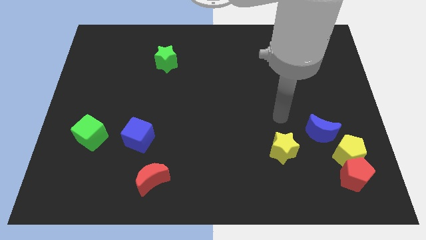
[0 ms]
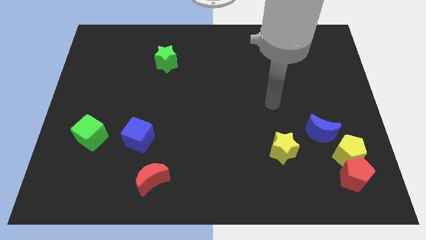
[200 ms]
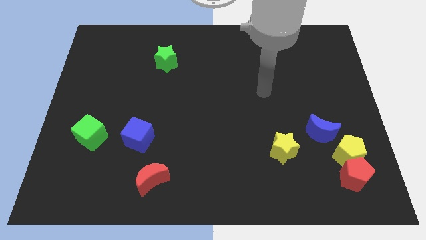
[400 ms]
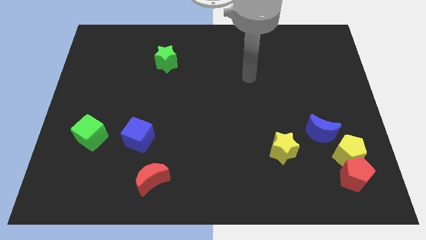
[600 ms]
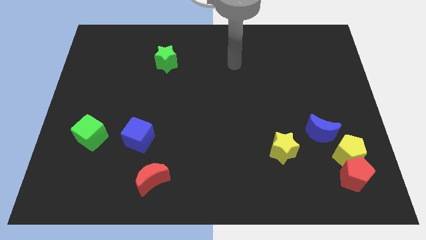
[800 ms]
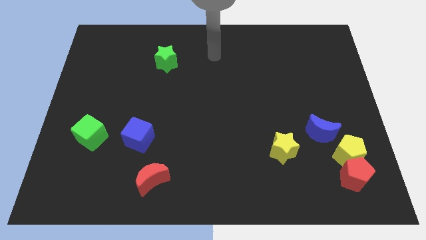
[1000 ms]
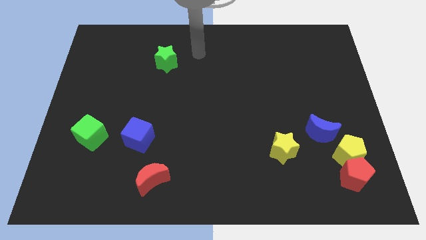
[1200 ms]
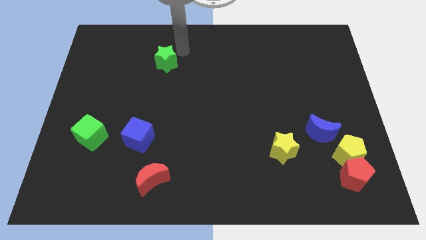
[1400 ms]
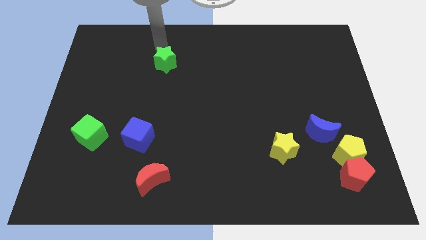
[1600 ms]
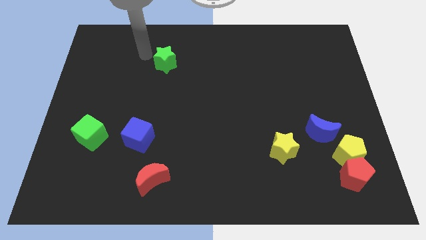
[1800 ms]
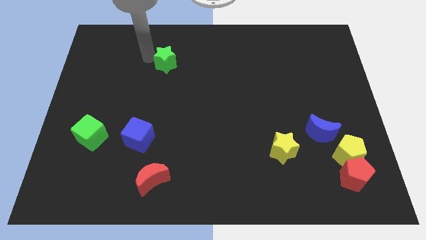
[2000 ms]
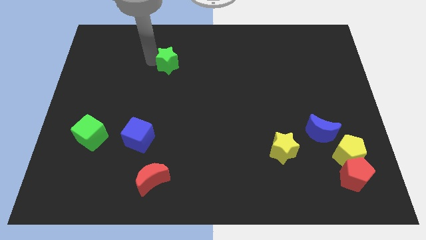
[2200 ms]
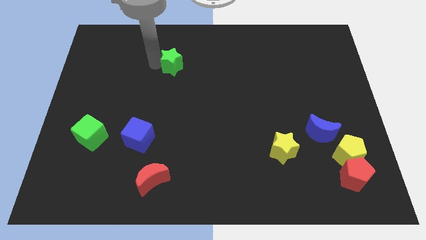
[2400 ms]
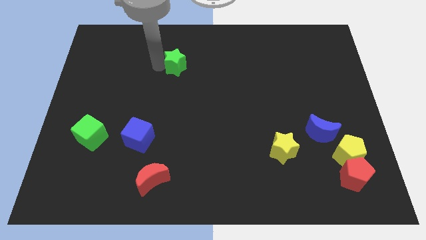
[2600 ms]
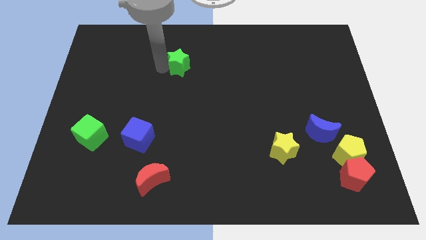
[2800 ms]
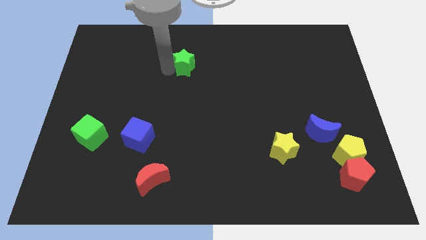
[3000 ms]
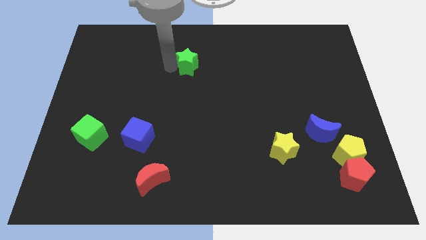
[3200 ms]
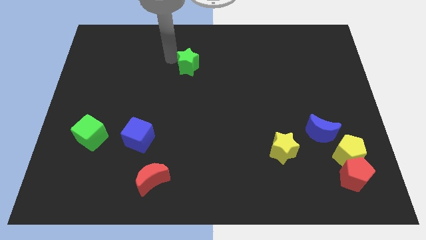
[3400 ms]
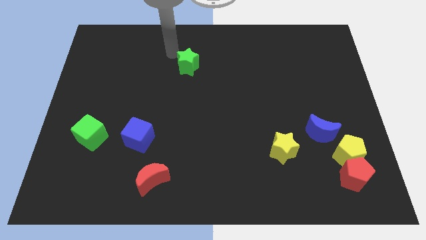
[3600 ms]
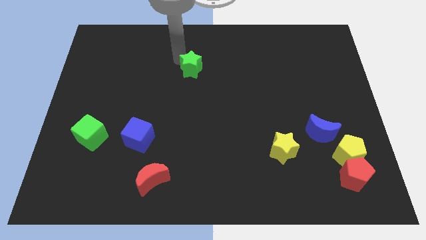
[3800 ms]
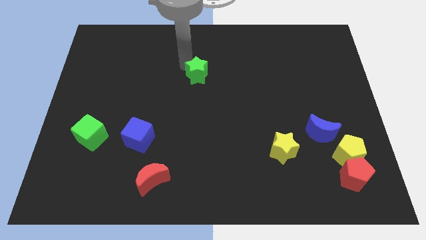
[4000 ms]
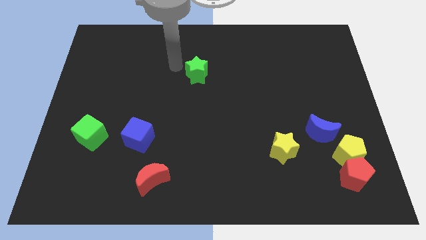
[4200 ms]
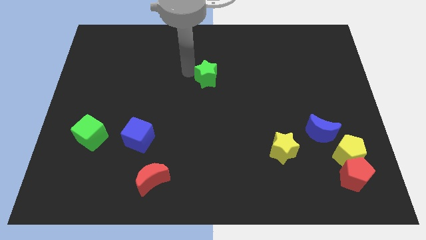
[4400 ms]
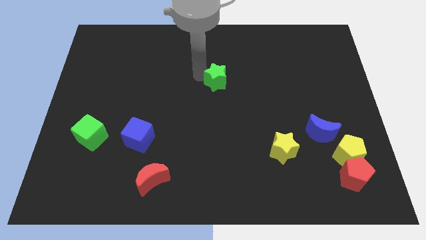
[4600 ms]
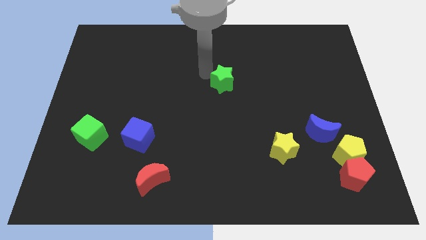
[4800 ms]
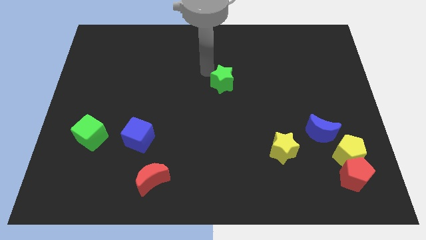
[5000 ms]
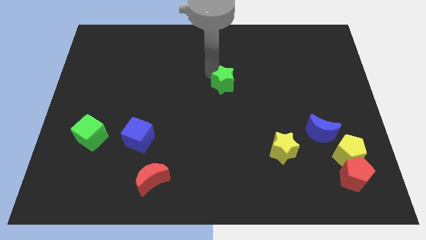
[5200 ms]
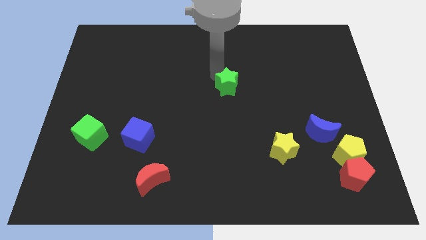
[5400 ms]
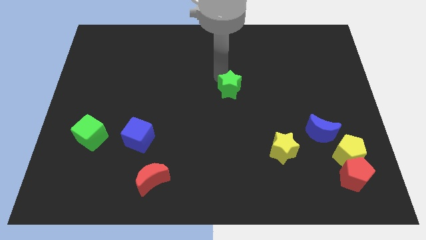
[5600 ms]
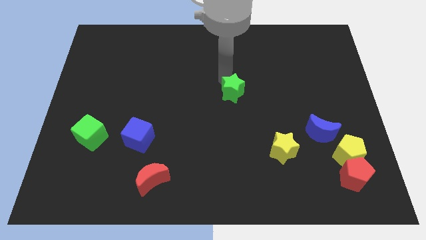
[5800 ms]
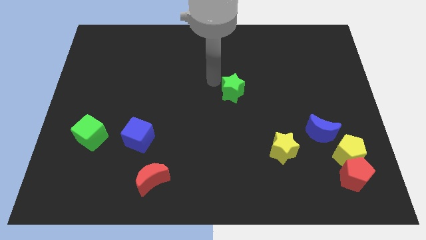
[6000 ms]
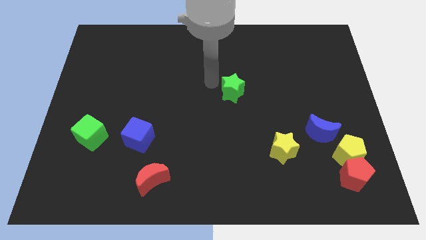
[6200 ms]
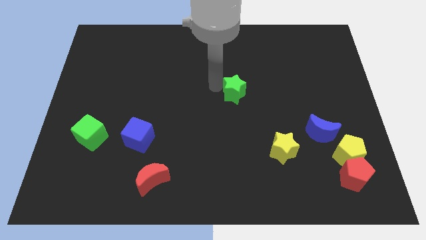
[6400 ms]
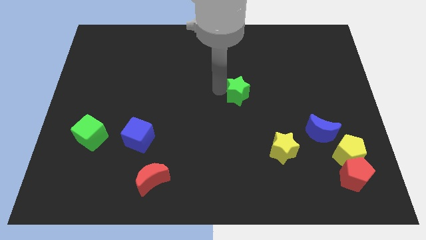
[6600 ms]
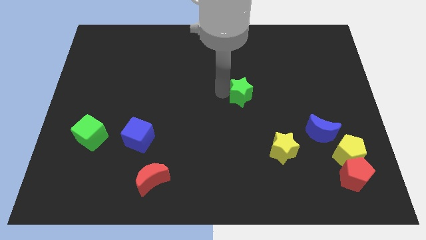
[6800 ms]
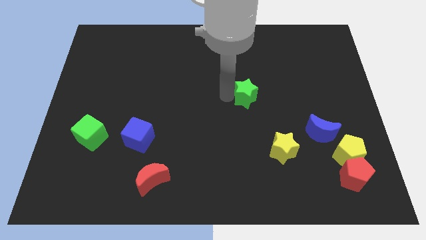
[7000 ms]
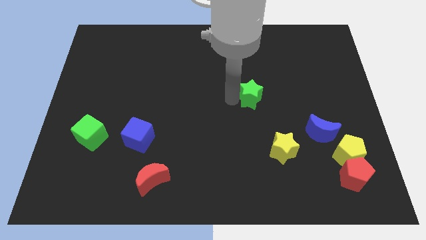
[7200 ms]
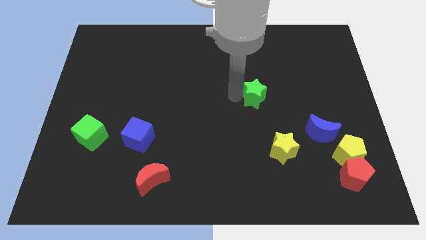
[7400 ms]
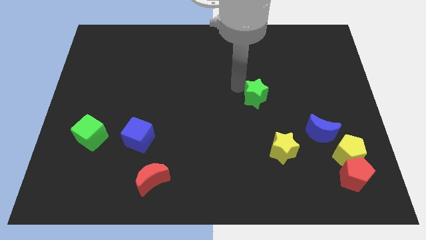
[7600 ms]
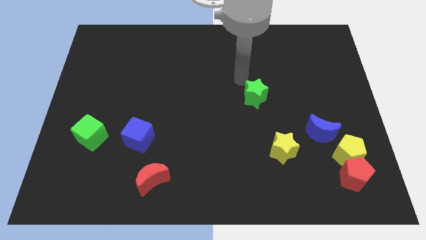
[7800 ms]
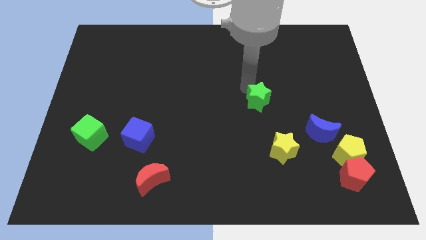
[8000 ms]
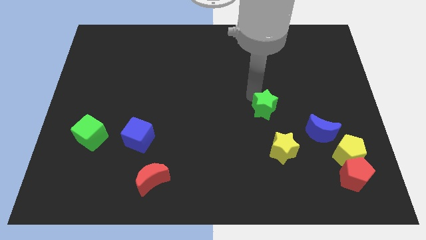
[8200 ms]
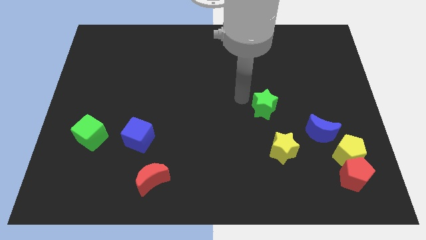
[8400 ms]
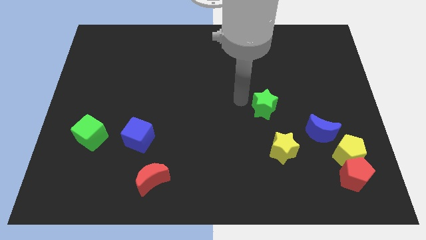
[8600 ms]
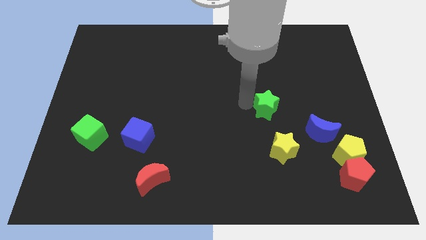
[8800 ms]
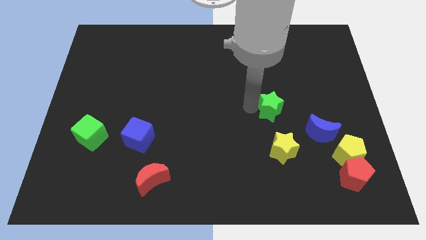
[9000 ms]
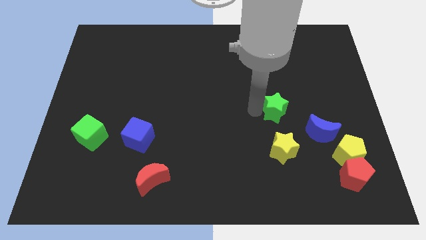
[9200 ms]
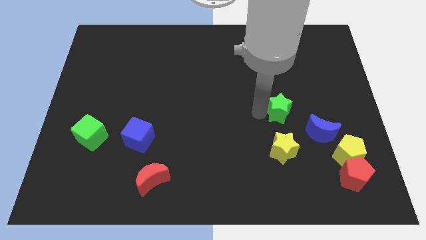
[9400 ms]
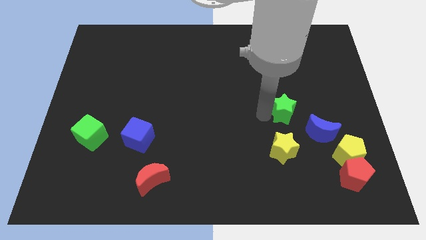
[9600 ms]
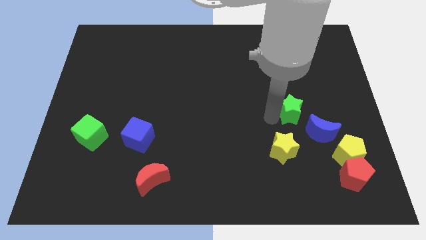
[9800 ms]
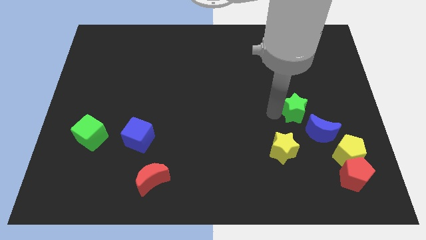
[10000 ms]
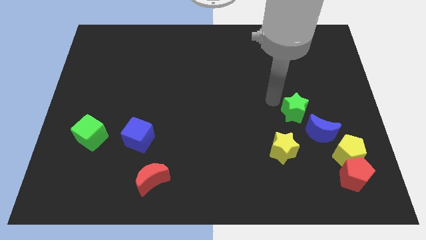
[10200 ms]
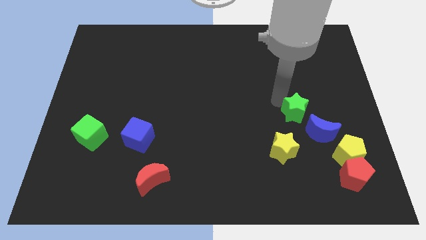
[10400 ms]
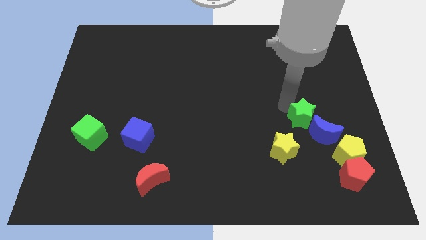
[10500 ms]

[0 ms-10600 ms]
push the green star towards the blue moon

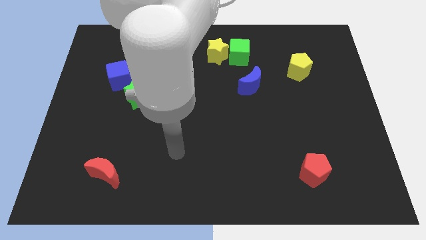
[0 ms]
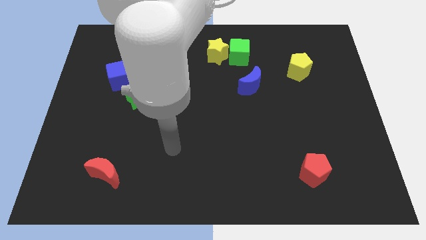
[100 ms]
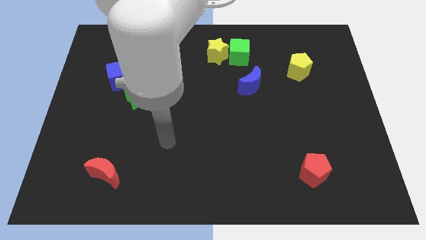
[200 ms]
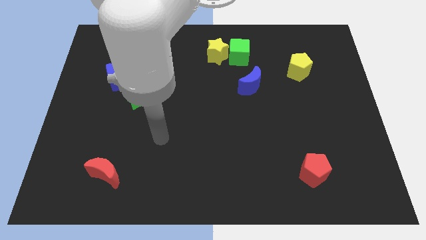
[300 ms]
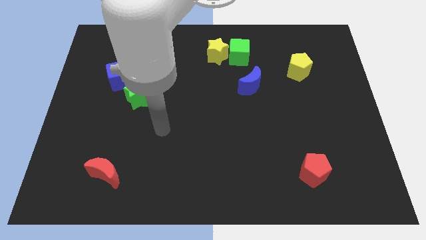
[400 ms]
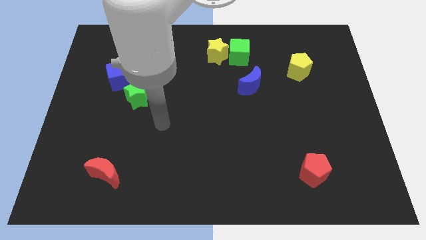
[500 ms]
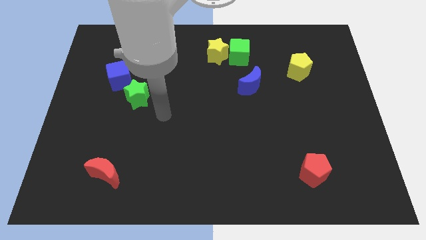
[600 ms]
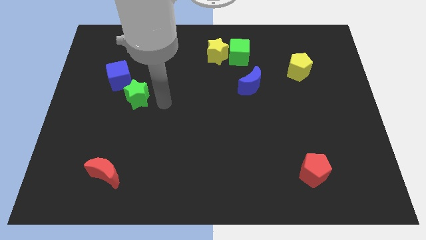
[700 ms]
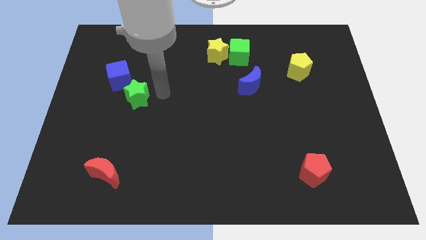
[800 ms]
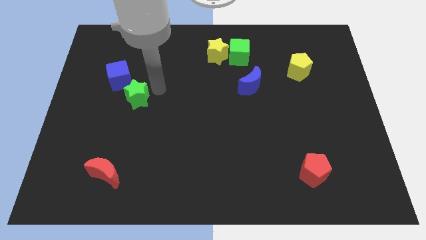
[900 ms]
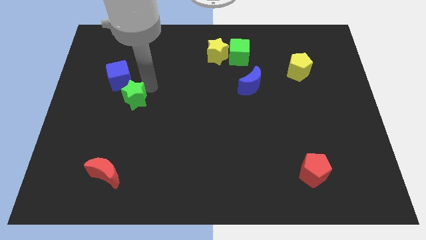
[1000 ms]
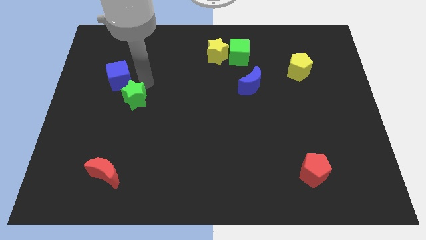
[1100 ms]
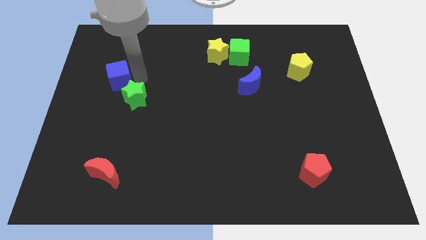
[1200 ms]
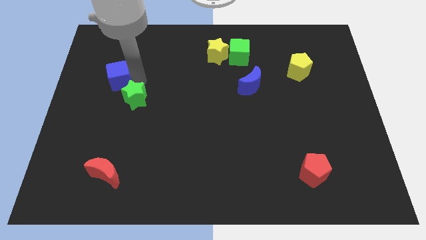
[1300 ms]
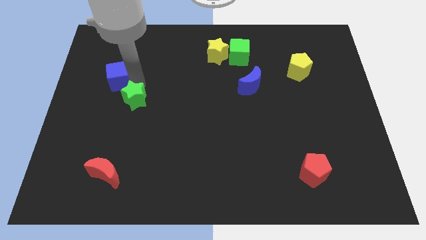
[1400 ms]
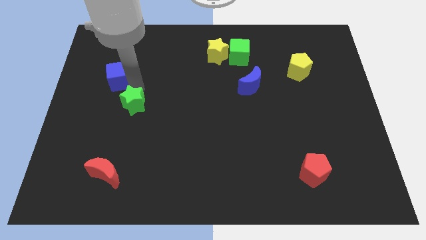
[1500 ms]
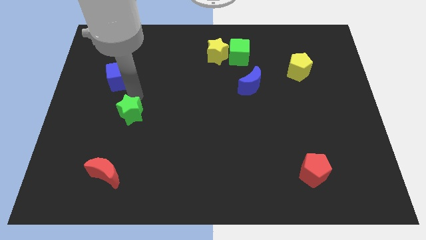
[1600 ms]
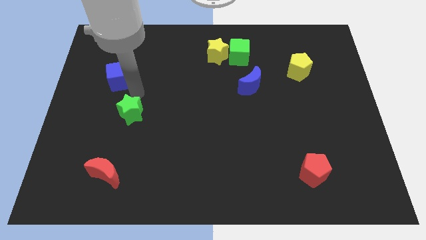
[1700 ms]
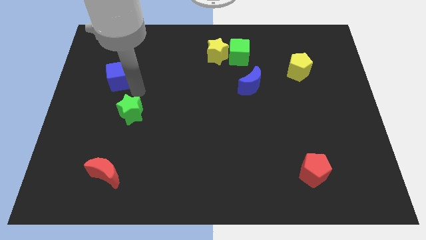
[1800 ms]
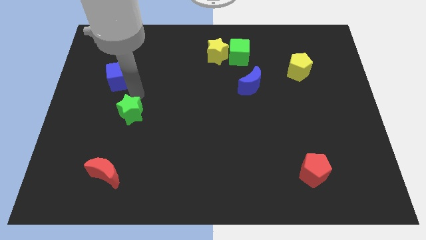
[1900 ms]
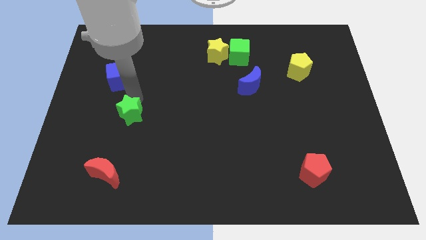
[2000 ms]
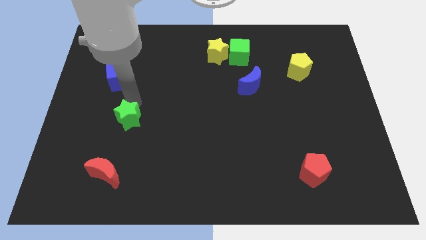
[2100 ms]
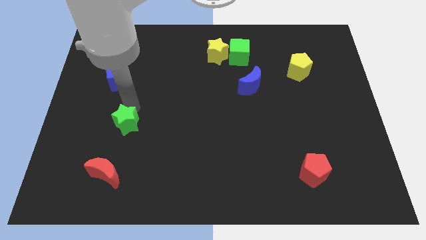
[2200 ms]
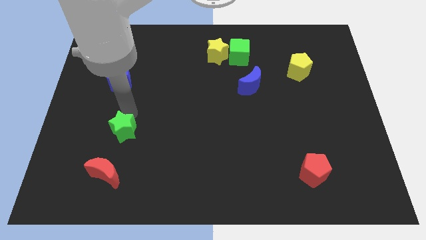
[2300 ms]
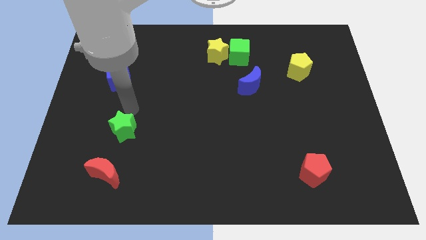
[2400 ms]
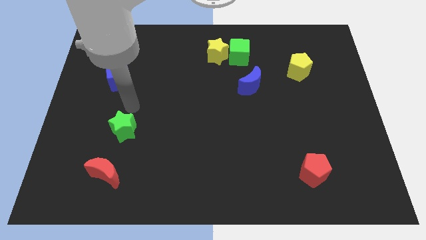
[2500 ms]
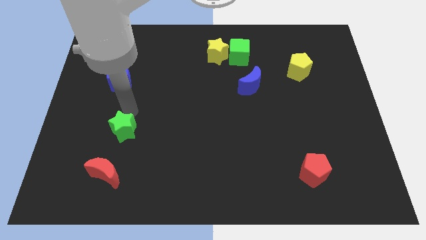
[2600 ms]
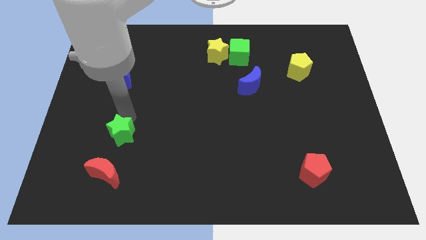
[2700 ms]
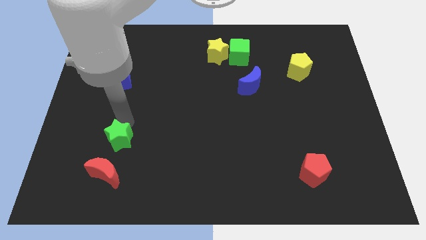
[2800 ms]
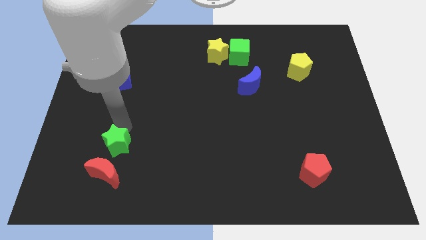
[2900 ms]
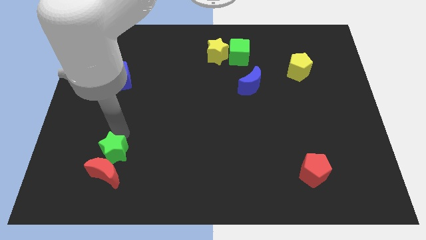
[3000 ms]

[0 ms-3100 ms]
slide the green star close to the red moon
